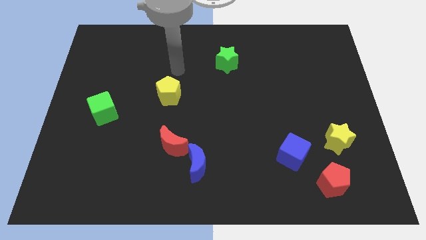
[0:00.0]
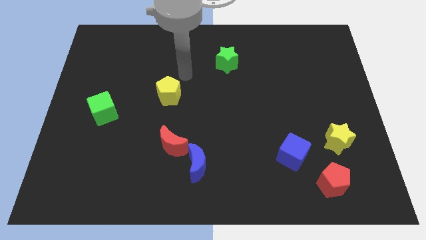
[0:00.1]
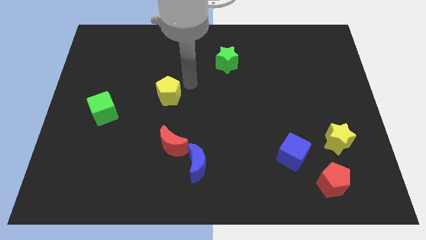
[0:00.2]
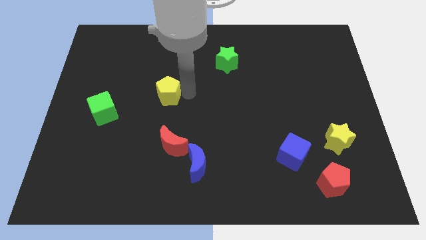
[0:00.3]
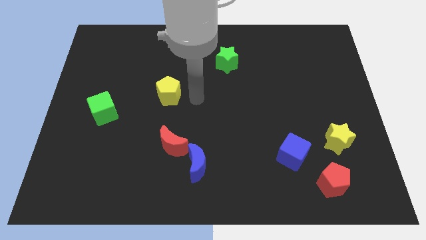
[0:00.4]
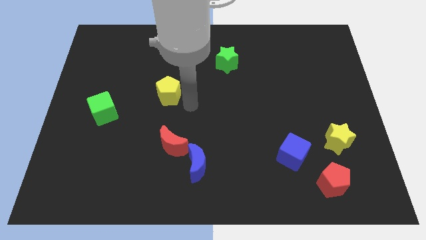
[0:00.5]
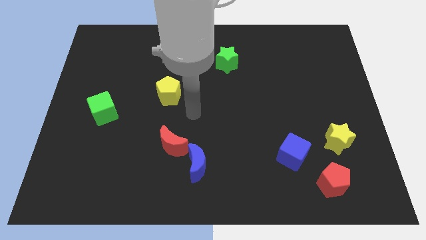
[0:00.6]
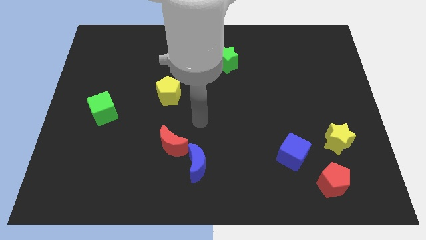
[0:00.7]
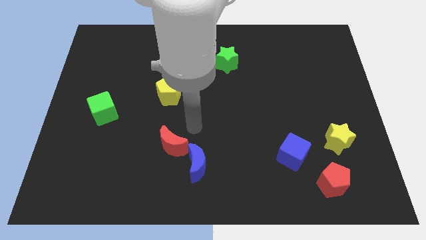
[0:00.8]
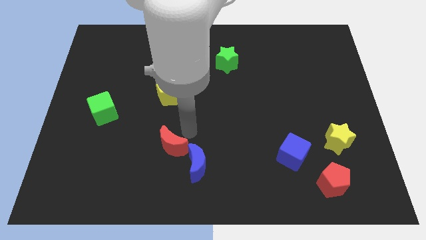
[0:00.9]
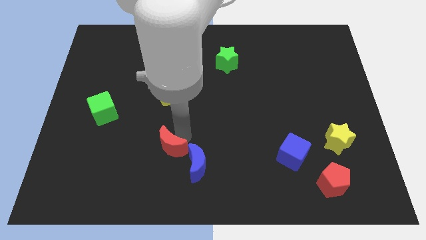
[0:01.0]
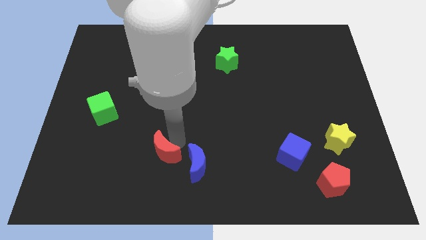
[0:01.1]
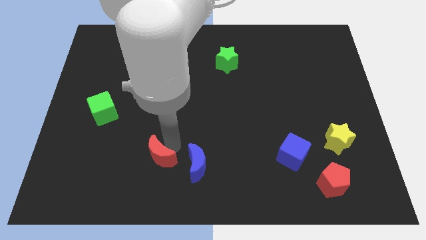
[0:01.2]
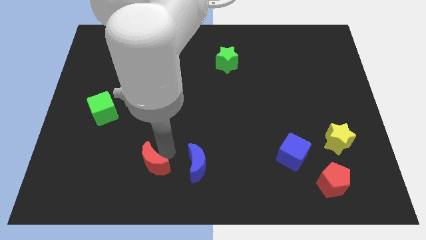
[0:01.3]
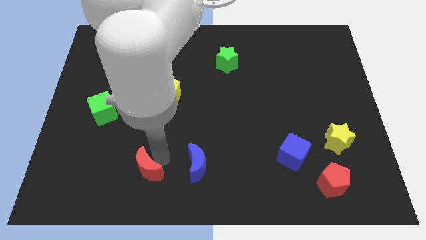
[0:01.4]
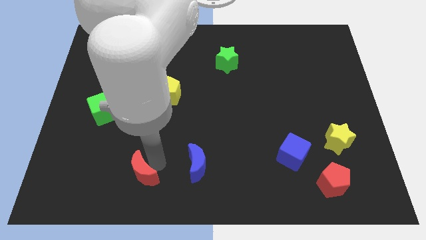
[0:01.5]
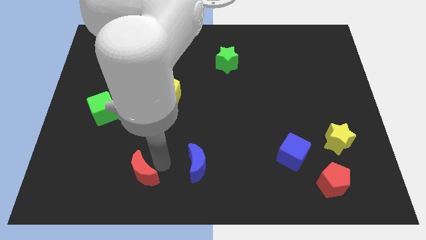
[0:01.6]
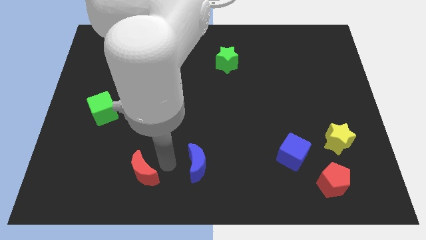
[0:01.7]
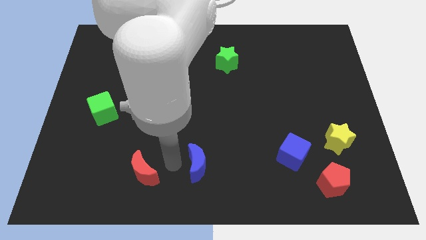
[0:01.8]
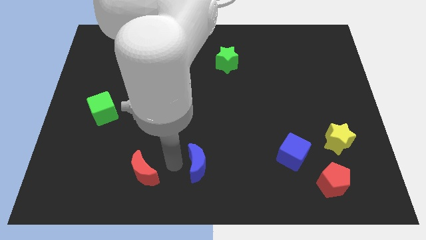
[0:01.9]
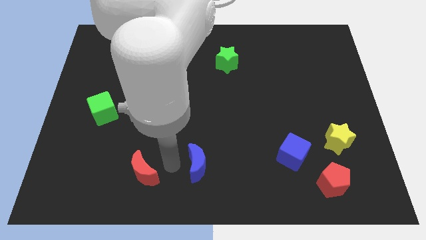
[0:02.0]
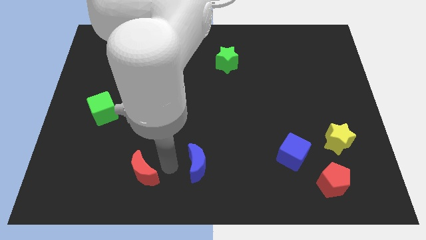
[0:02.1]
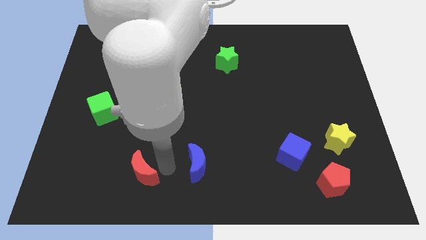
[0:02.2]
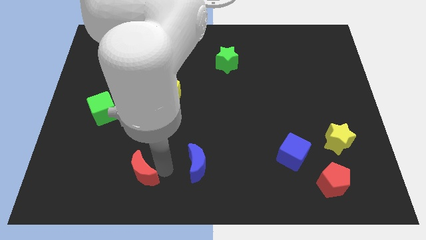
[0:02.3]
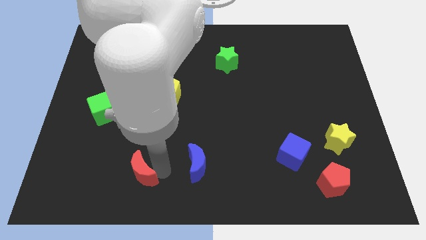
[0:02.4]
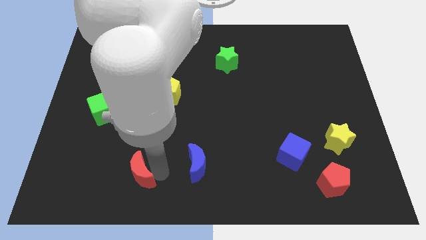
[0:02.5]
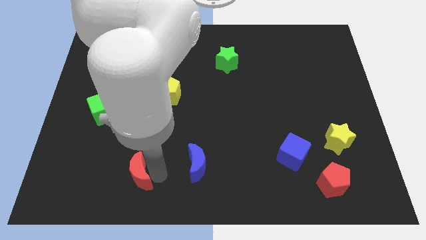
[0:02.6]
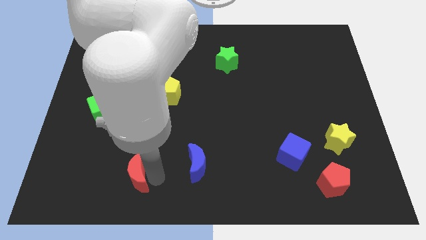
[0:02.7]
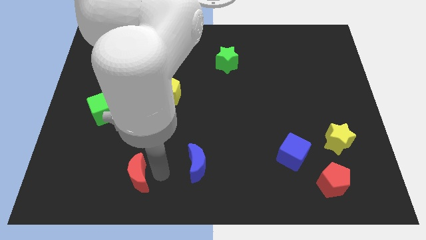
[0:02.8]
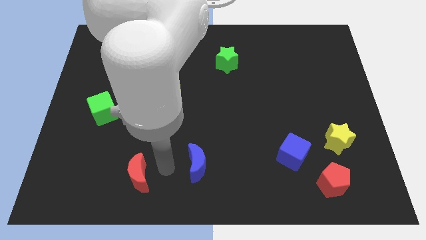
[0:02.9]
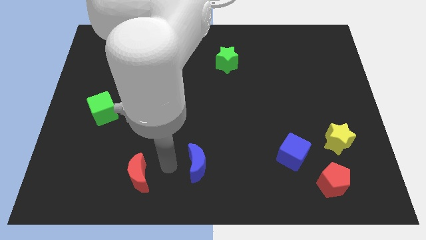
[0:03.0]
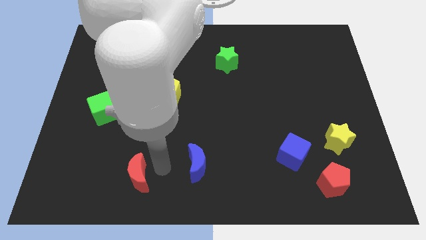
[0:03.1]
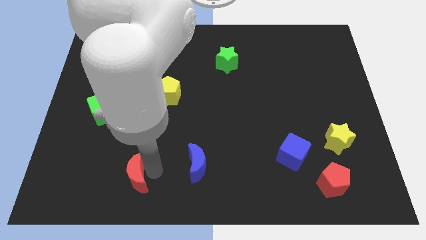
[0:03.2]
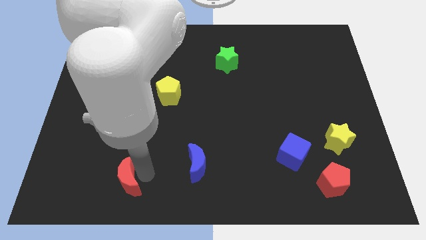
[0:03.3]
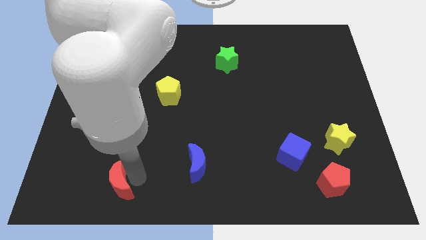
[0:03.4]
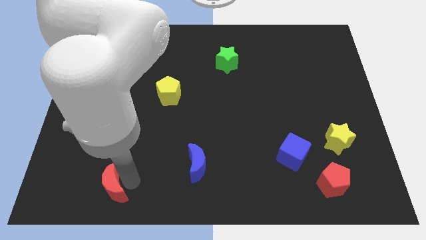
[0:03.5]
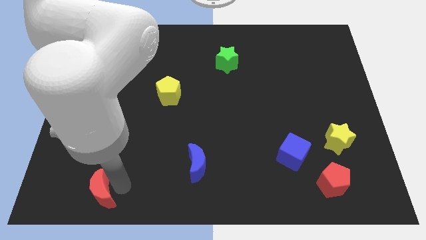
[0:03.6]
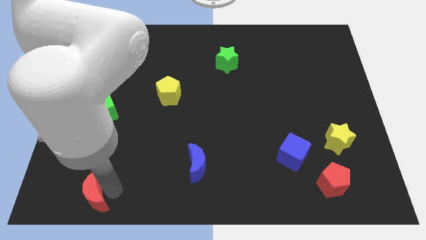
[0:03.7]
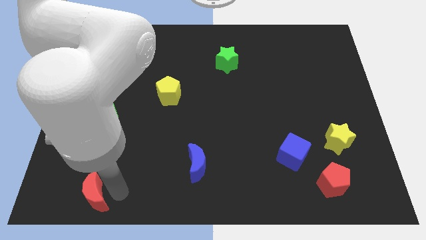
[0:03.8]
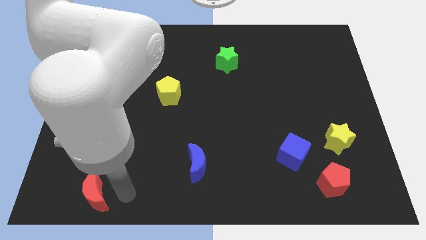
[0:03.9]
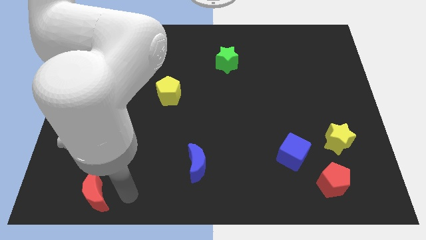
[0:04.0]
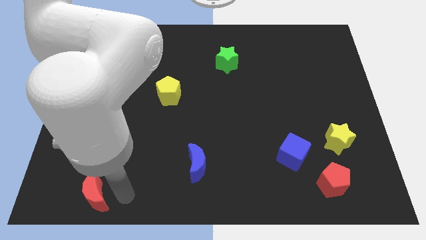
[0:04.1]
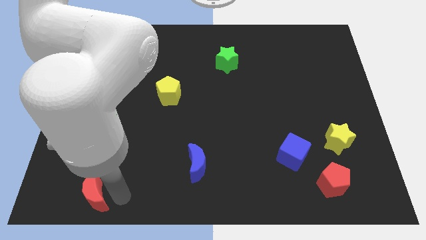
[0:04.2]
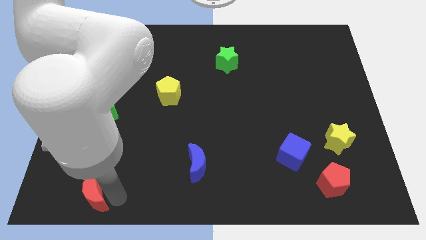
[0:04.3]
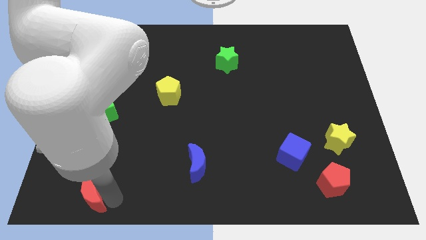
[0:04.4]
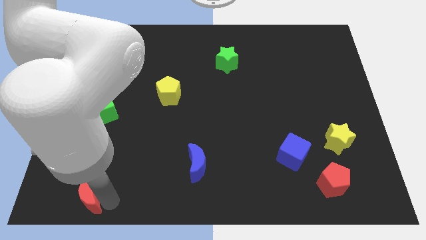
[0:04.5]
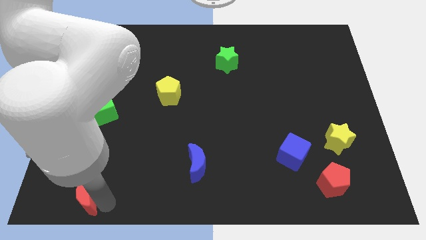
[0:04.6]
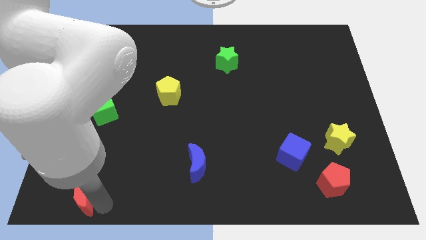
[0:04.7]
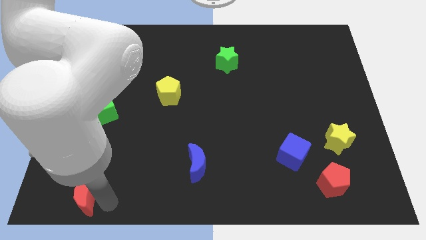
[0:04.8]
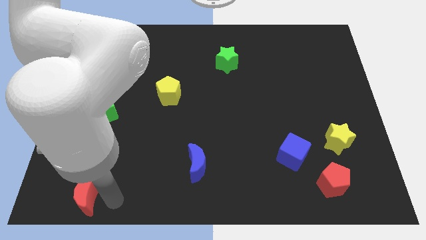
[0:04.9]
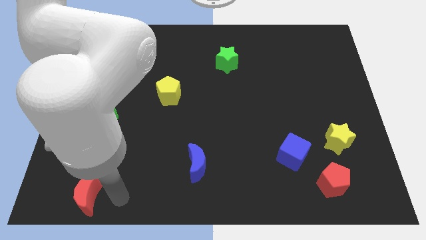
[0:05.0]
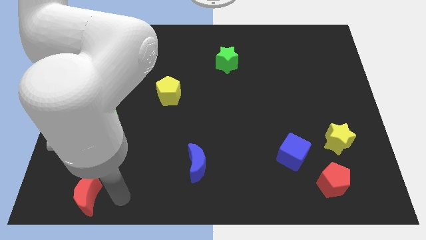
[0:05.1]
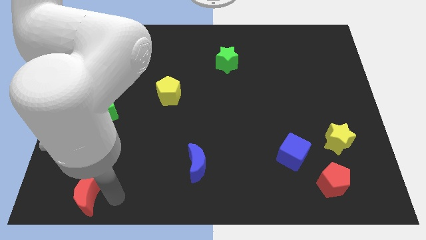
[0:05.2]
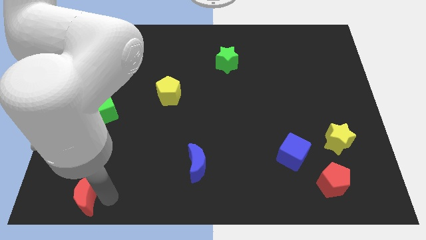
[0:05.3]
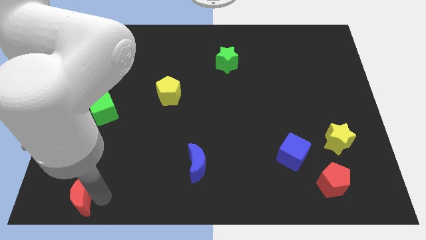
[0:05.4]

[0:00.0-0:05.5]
push the red moon to the lower left corner

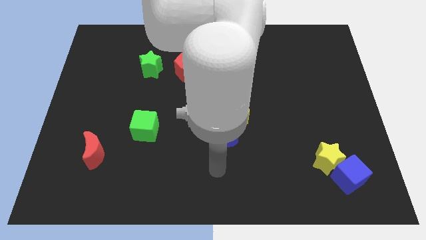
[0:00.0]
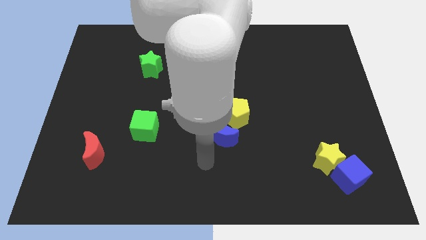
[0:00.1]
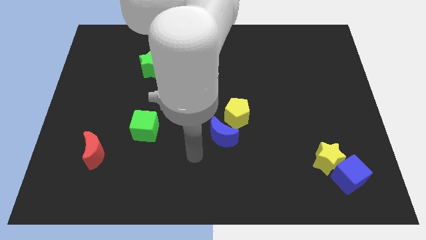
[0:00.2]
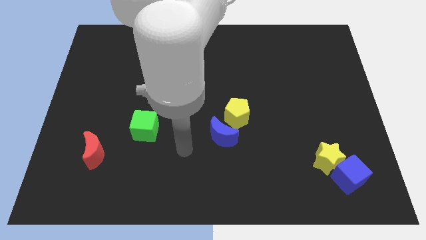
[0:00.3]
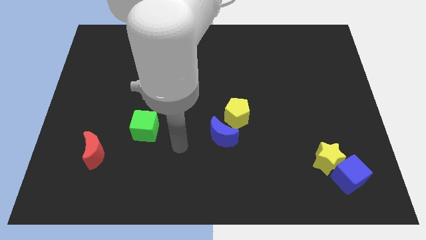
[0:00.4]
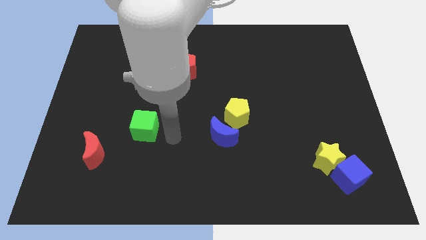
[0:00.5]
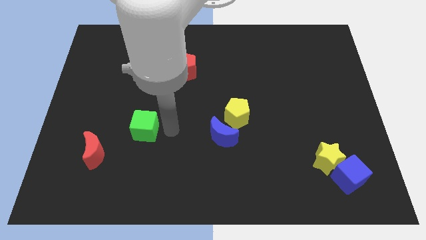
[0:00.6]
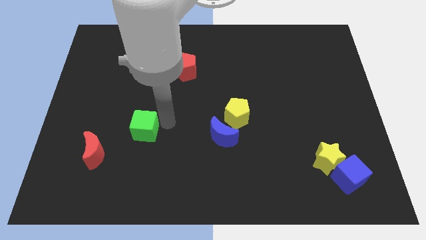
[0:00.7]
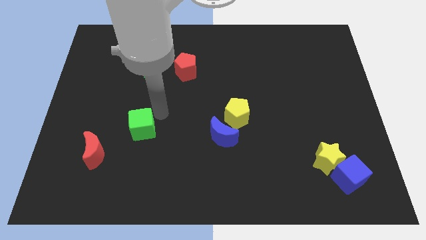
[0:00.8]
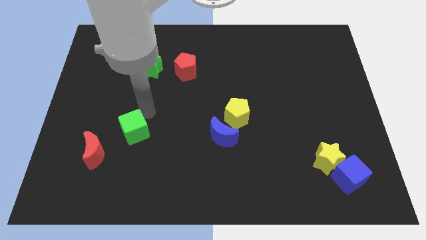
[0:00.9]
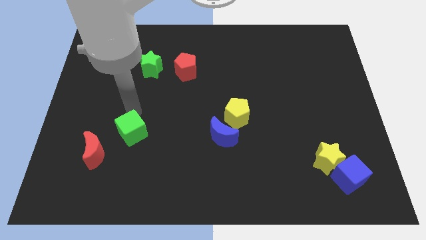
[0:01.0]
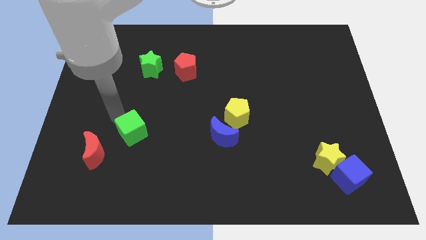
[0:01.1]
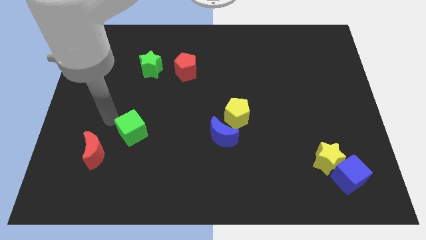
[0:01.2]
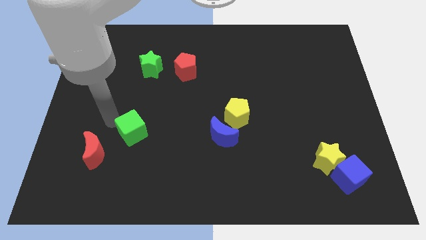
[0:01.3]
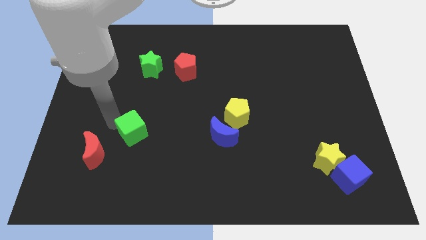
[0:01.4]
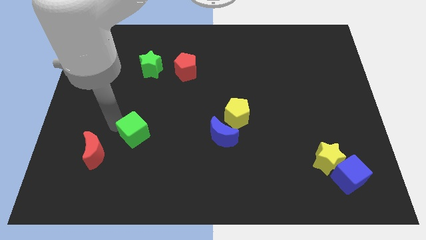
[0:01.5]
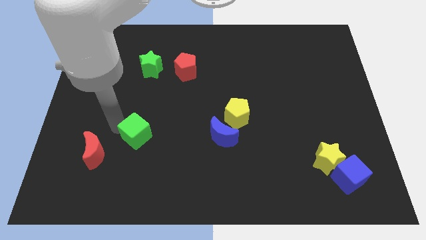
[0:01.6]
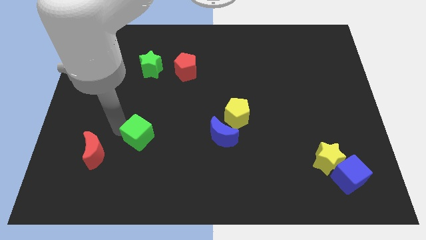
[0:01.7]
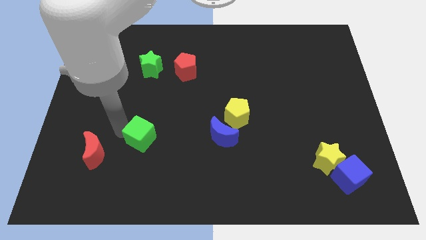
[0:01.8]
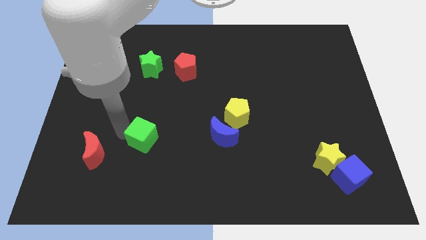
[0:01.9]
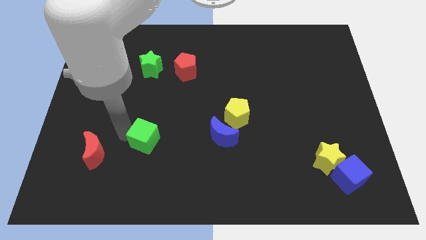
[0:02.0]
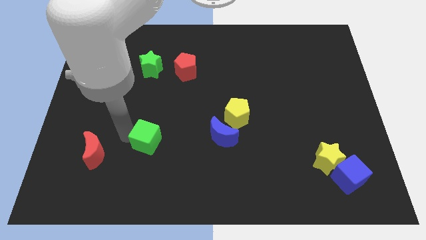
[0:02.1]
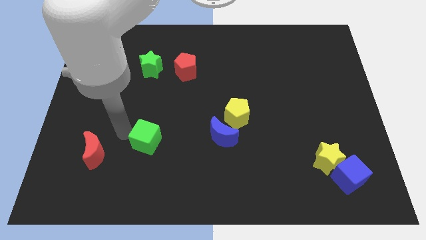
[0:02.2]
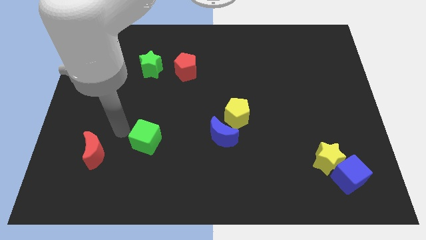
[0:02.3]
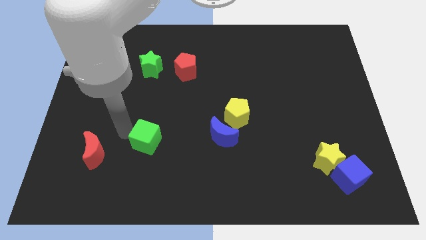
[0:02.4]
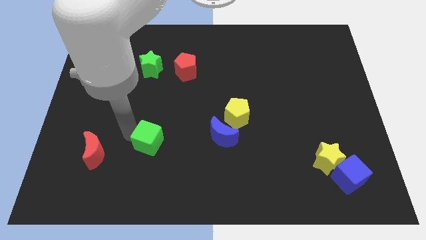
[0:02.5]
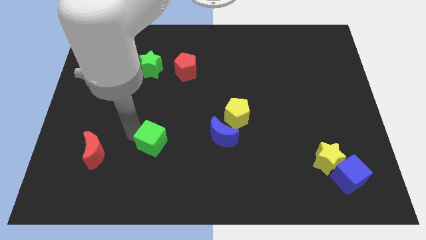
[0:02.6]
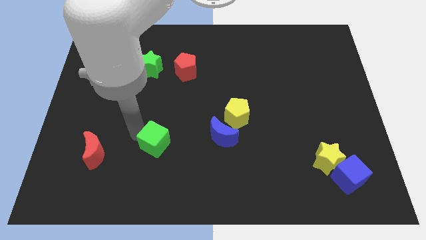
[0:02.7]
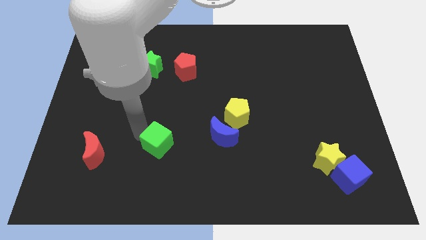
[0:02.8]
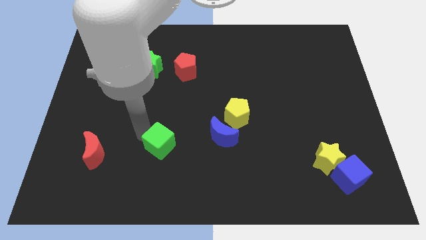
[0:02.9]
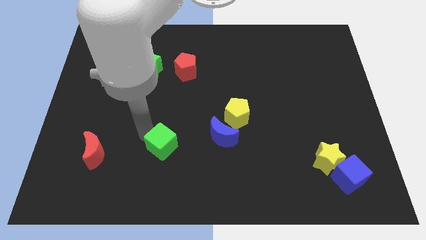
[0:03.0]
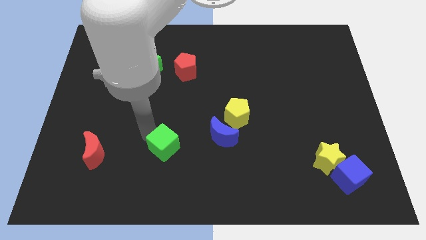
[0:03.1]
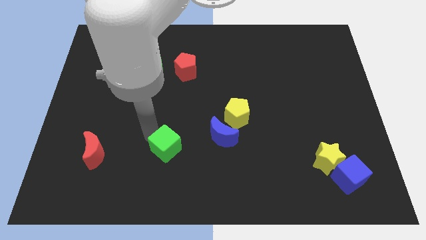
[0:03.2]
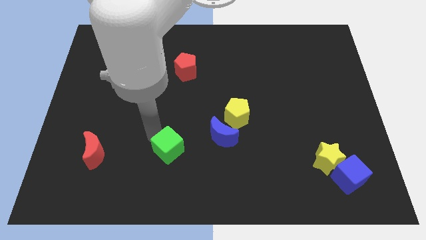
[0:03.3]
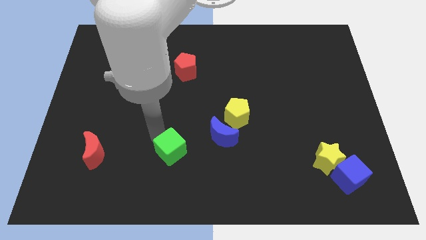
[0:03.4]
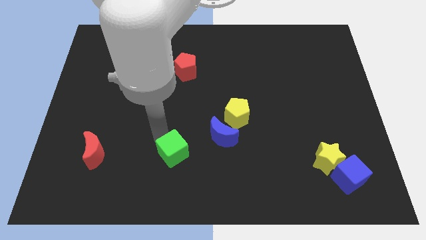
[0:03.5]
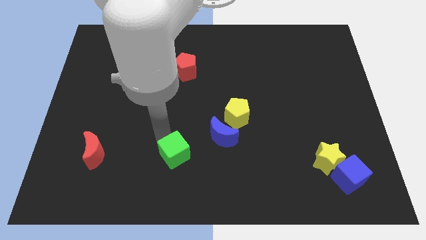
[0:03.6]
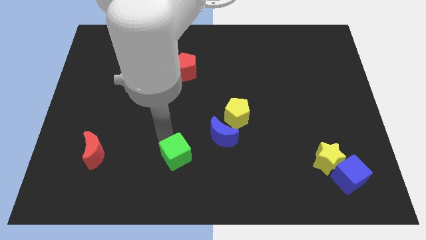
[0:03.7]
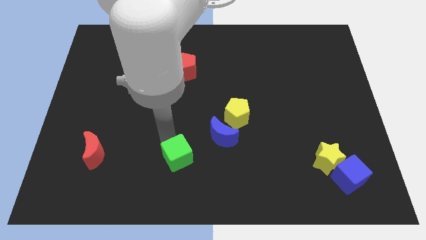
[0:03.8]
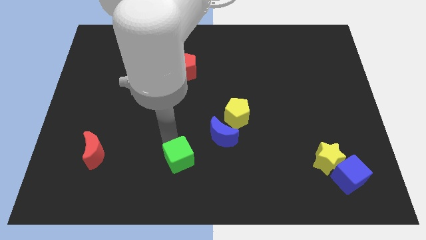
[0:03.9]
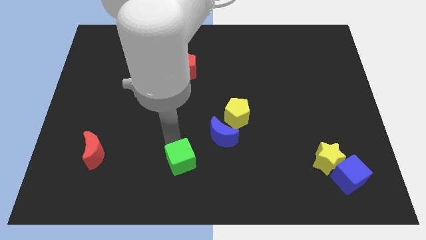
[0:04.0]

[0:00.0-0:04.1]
move the green cube to the bottom
